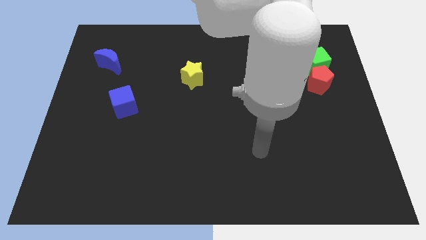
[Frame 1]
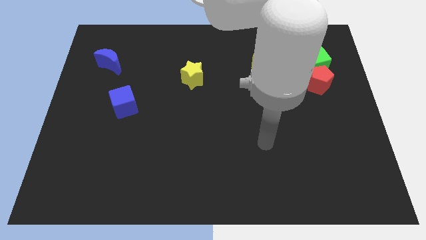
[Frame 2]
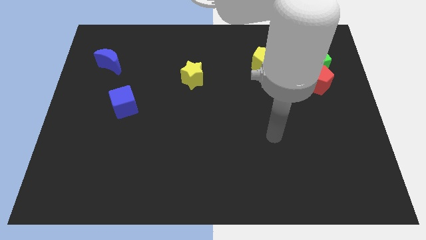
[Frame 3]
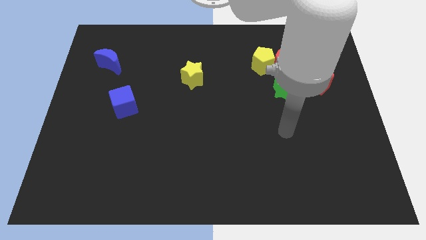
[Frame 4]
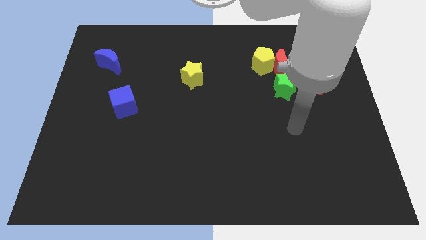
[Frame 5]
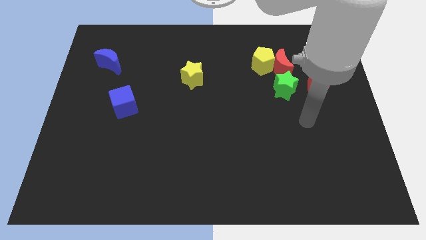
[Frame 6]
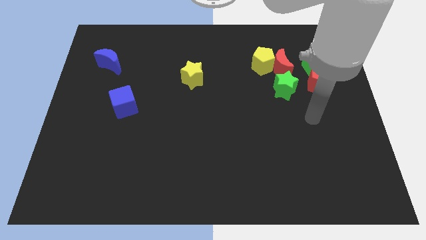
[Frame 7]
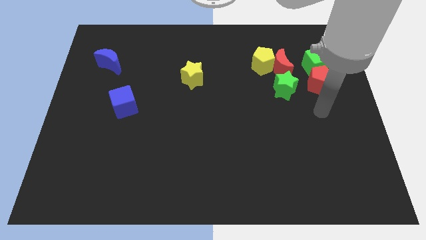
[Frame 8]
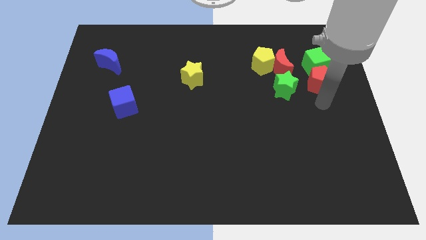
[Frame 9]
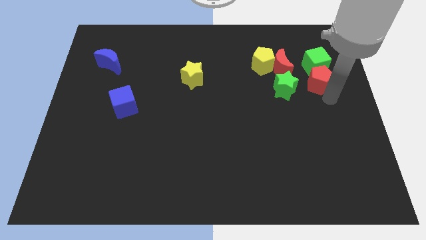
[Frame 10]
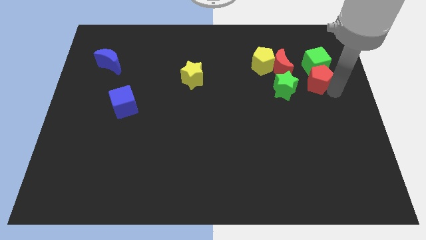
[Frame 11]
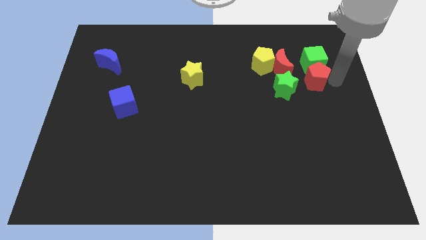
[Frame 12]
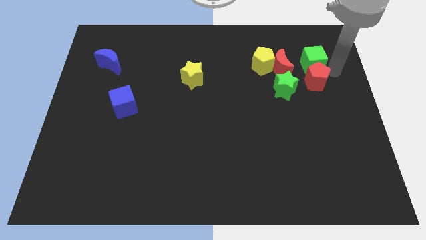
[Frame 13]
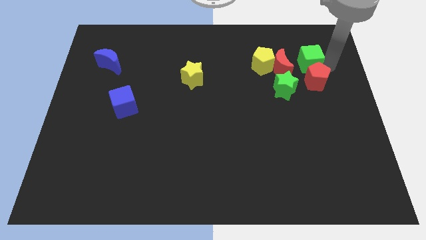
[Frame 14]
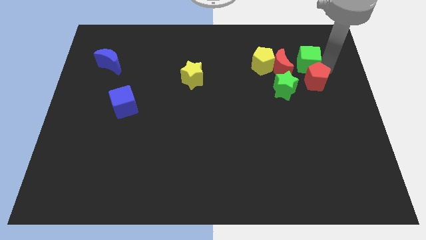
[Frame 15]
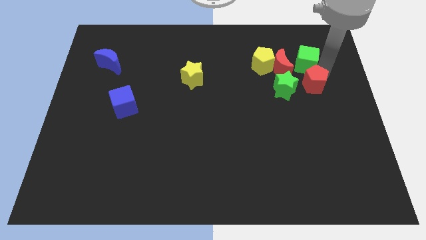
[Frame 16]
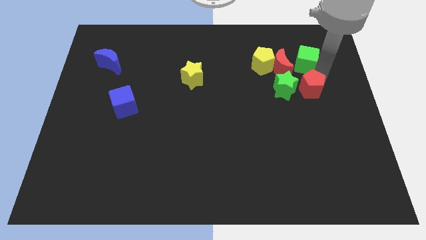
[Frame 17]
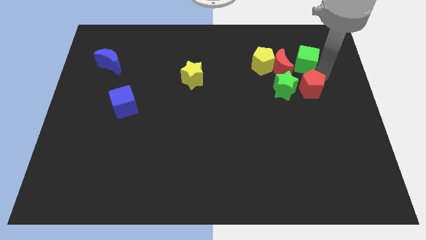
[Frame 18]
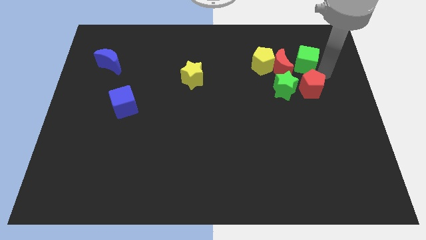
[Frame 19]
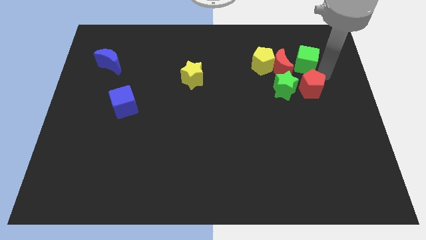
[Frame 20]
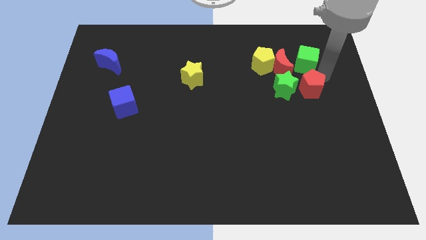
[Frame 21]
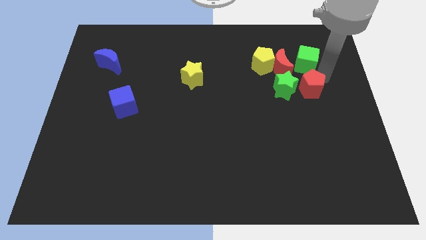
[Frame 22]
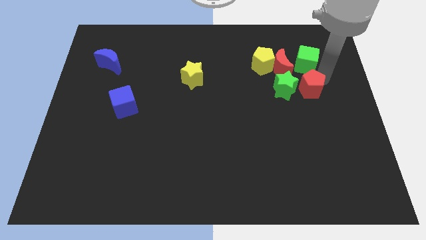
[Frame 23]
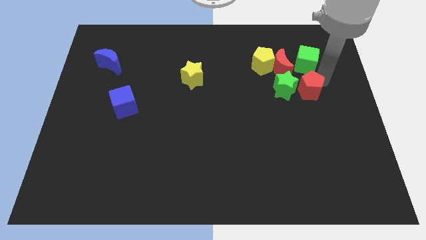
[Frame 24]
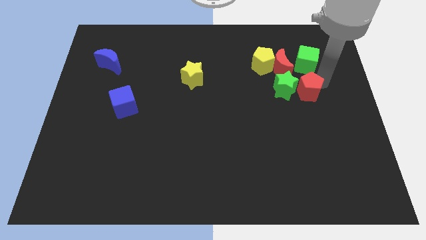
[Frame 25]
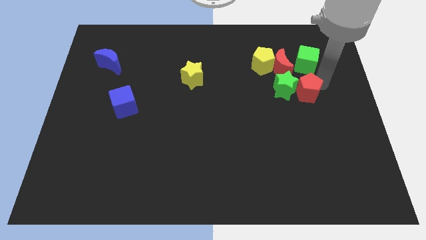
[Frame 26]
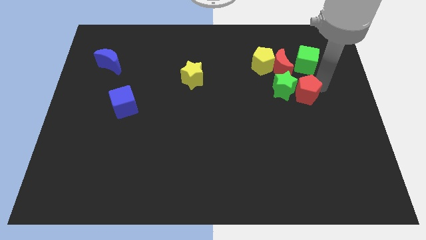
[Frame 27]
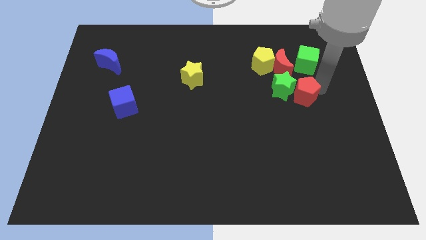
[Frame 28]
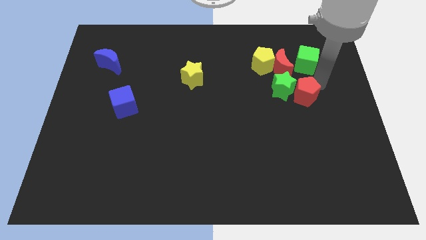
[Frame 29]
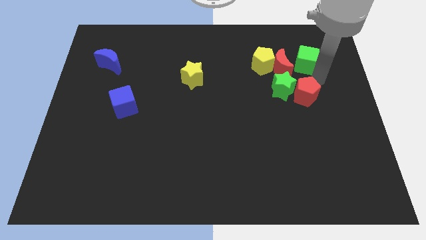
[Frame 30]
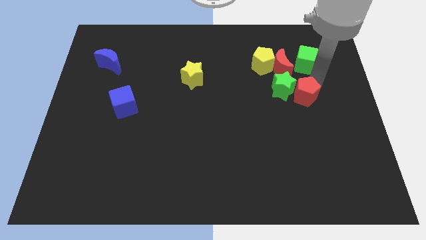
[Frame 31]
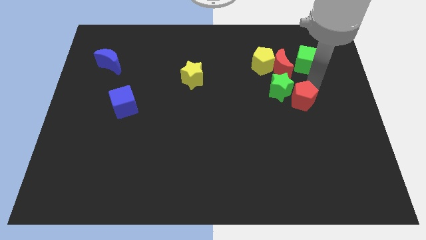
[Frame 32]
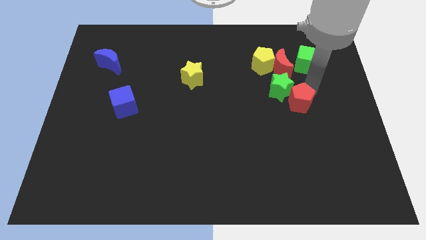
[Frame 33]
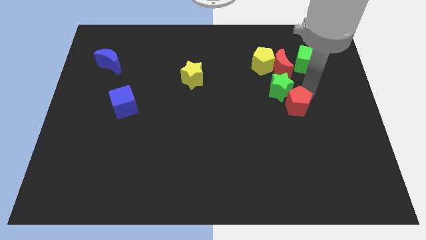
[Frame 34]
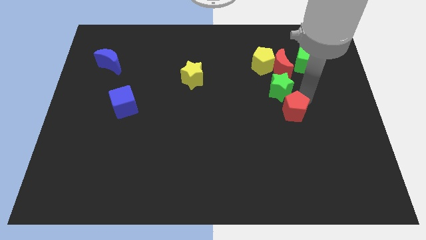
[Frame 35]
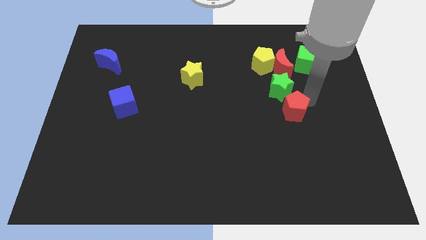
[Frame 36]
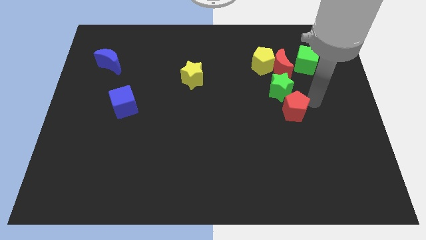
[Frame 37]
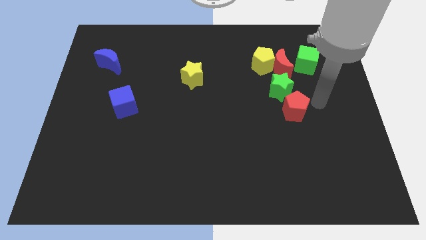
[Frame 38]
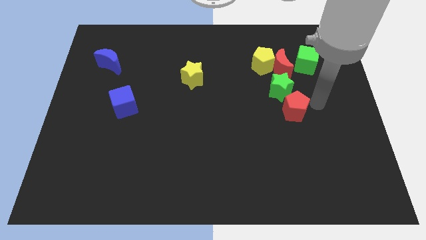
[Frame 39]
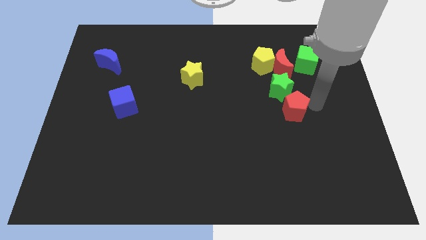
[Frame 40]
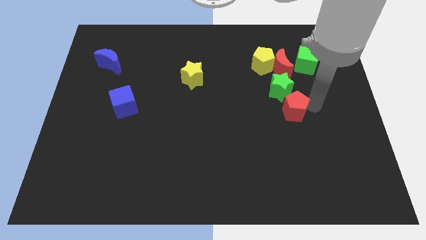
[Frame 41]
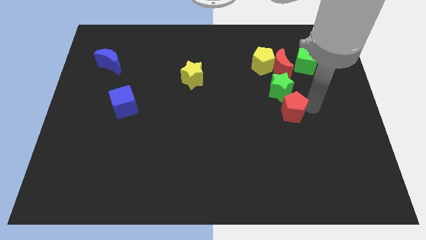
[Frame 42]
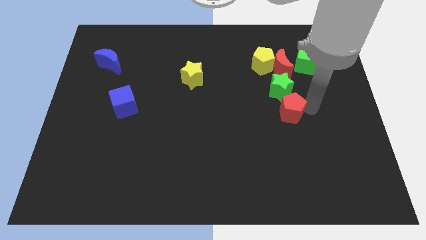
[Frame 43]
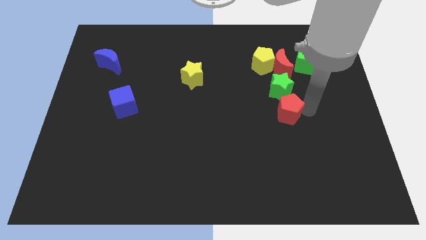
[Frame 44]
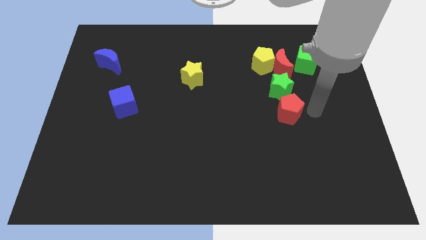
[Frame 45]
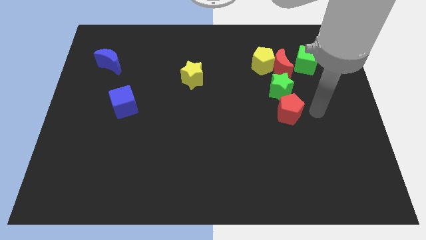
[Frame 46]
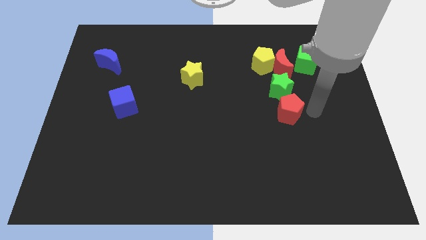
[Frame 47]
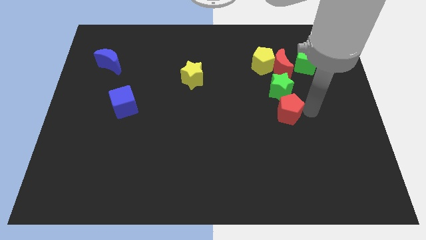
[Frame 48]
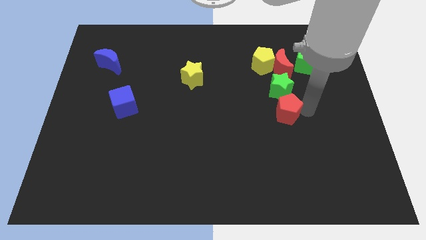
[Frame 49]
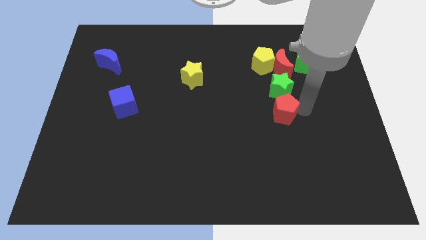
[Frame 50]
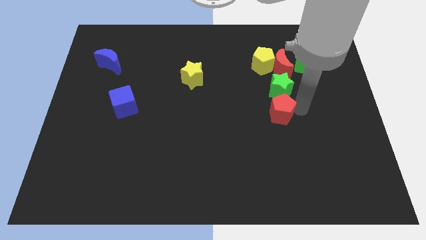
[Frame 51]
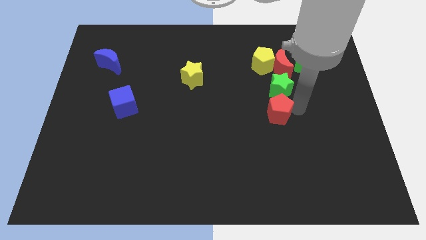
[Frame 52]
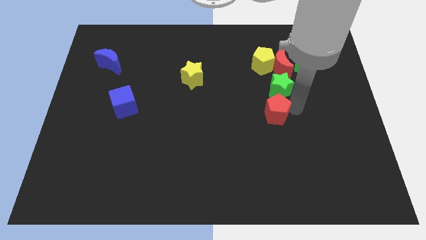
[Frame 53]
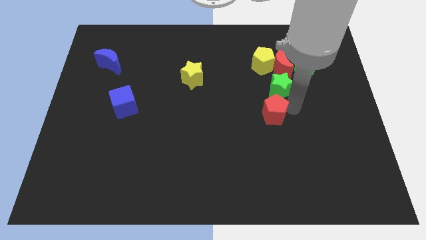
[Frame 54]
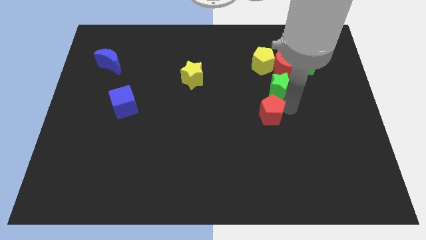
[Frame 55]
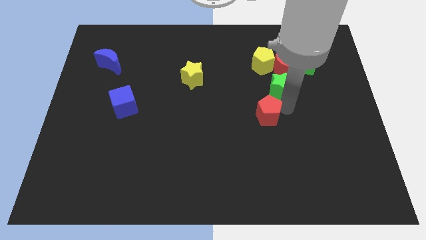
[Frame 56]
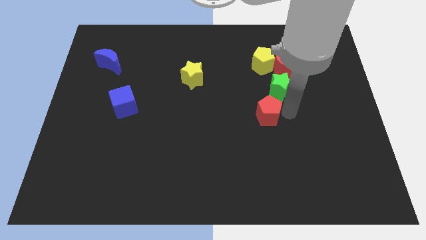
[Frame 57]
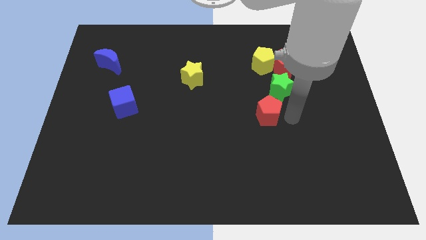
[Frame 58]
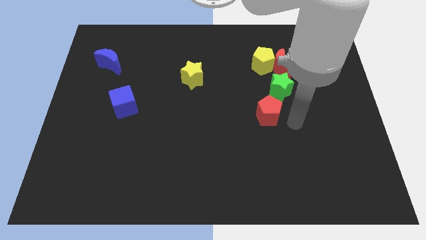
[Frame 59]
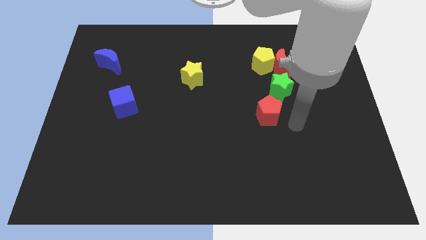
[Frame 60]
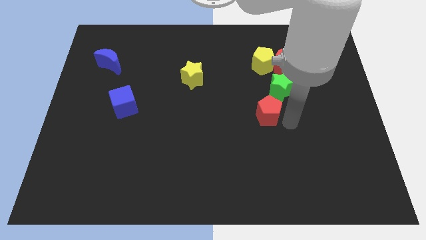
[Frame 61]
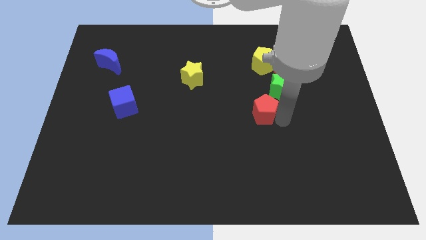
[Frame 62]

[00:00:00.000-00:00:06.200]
put the red pentagon to the center of the board
